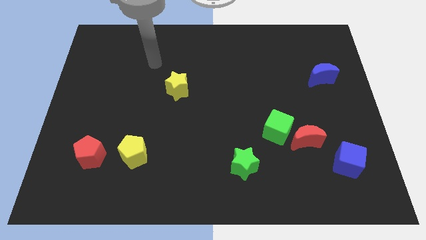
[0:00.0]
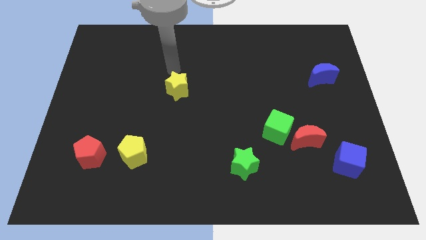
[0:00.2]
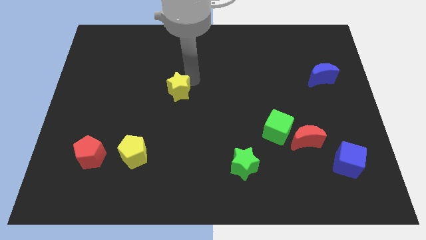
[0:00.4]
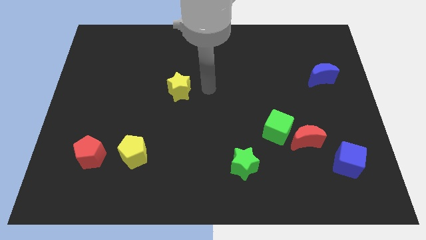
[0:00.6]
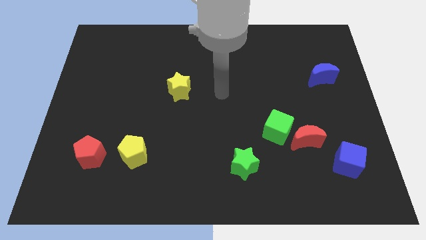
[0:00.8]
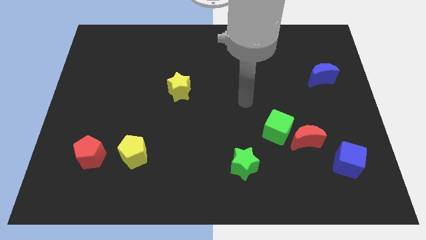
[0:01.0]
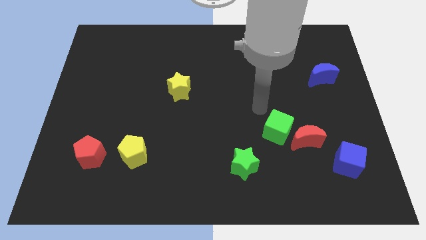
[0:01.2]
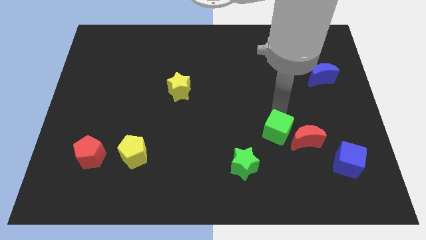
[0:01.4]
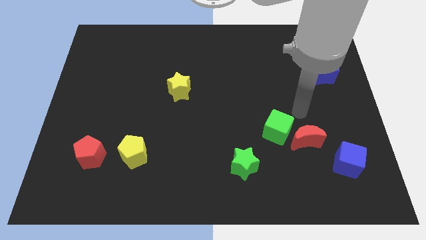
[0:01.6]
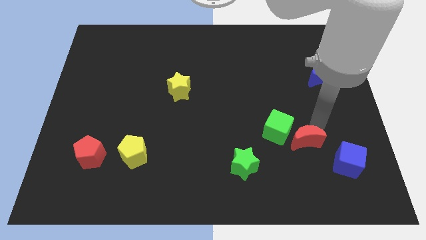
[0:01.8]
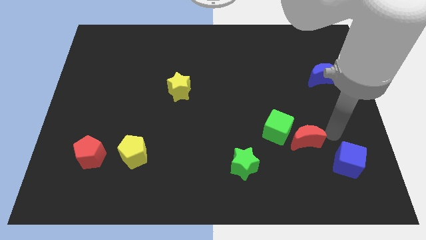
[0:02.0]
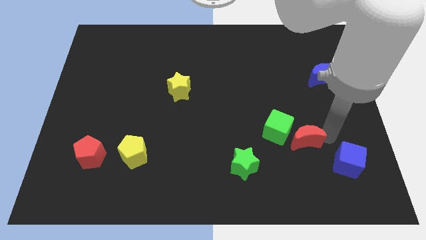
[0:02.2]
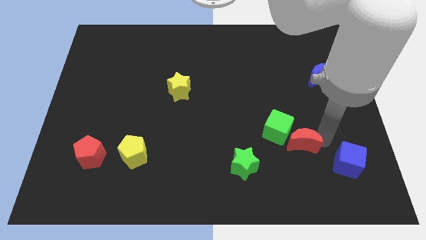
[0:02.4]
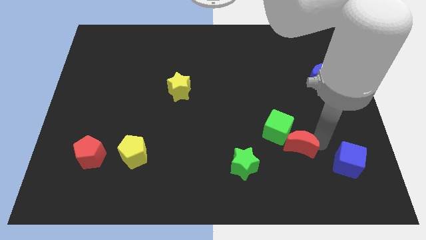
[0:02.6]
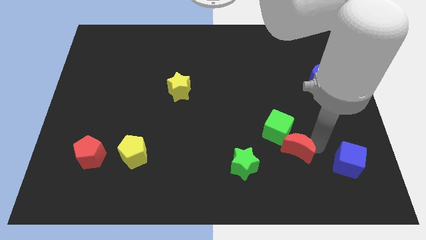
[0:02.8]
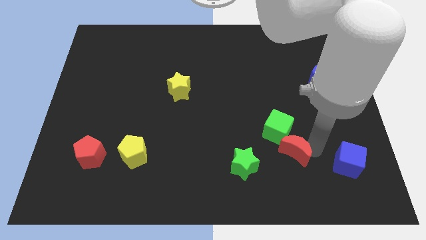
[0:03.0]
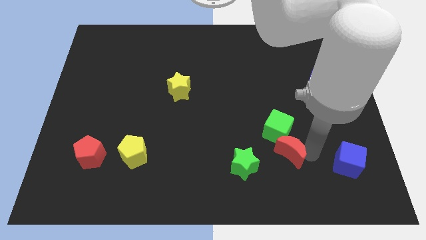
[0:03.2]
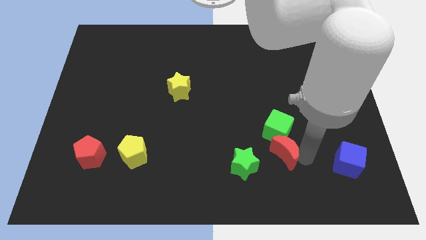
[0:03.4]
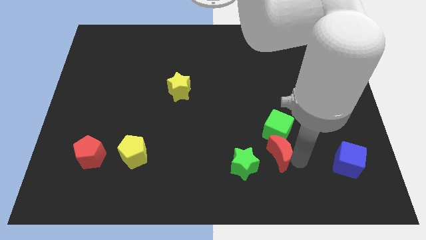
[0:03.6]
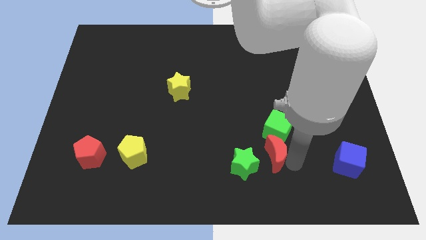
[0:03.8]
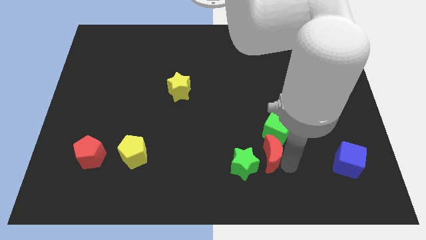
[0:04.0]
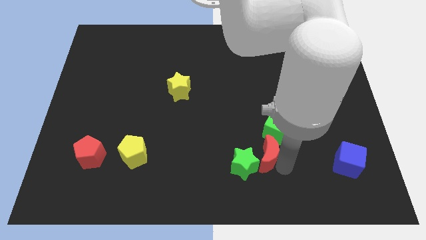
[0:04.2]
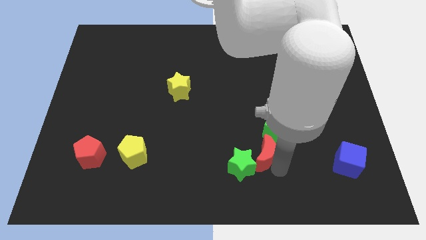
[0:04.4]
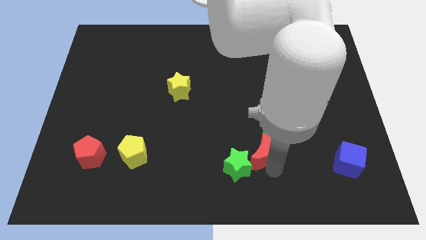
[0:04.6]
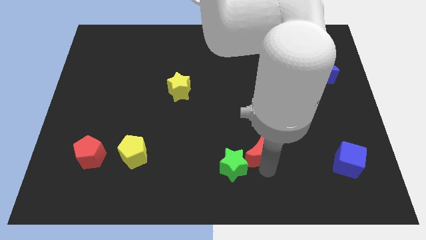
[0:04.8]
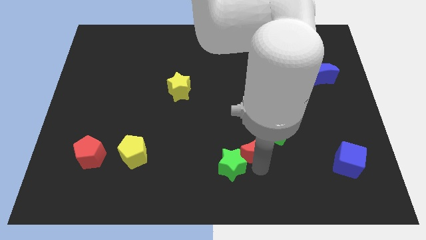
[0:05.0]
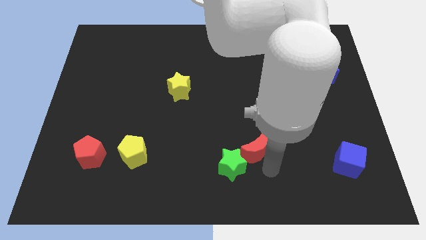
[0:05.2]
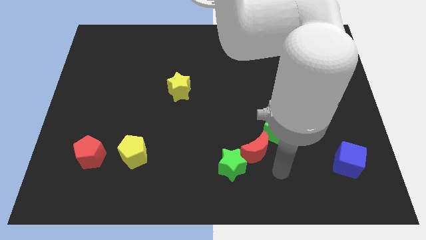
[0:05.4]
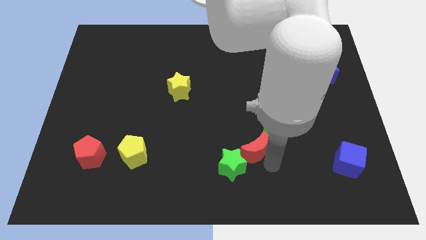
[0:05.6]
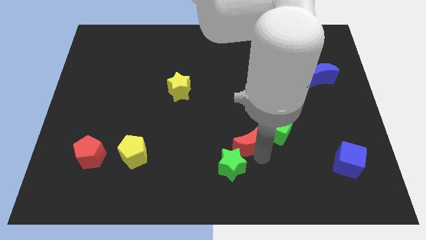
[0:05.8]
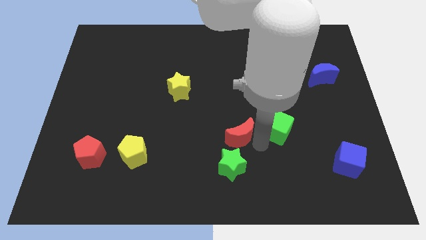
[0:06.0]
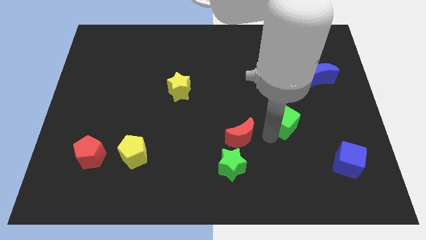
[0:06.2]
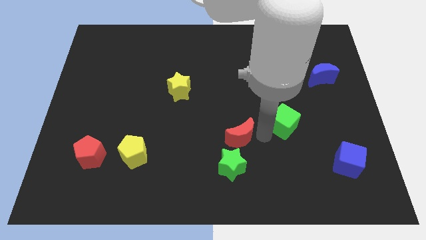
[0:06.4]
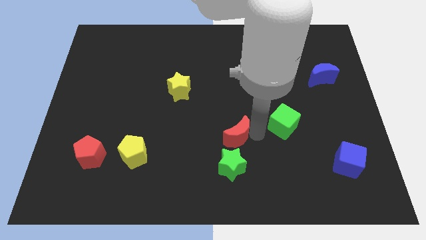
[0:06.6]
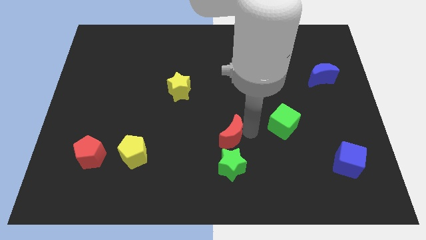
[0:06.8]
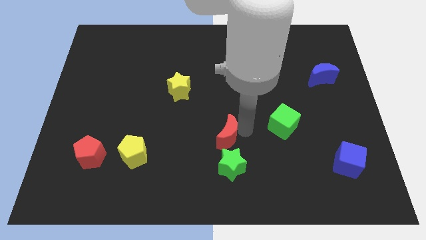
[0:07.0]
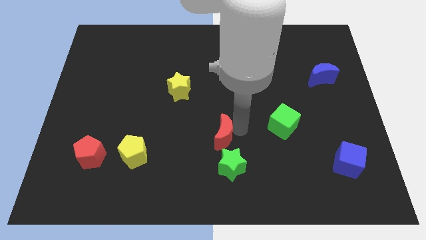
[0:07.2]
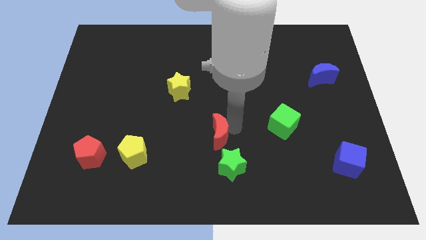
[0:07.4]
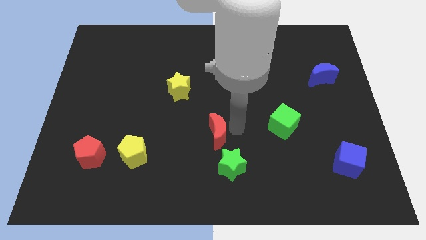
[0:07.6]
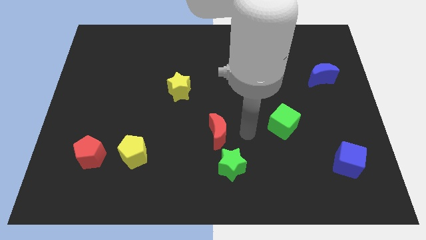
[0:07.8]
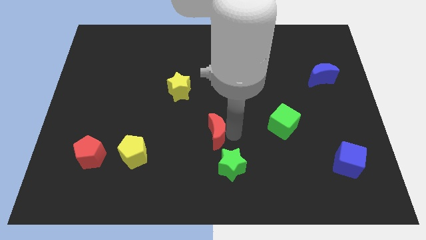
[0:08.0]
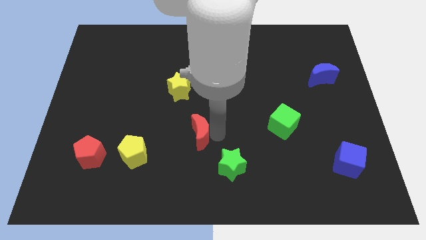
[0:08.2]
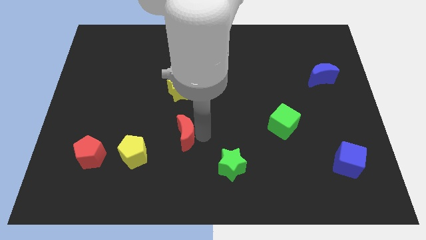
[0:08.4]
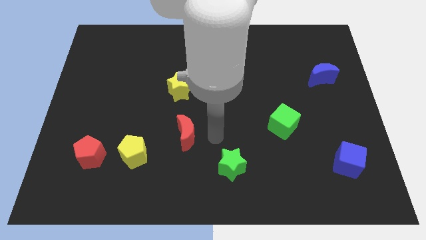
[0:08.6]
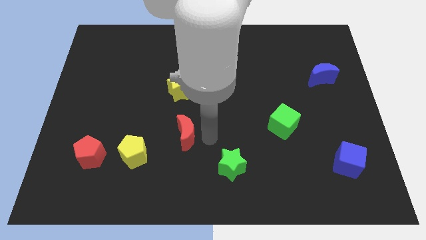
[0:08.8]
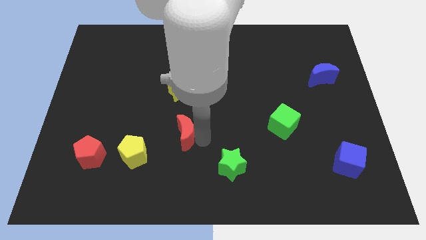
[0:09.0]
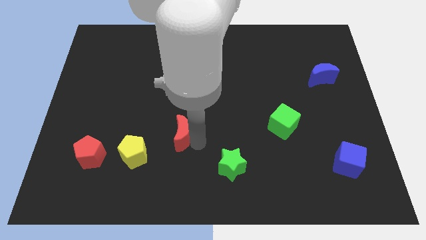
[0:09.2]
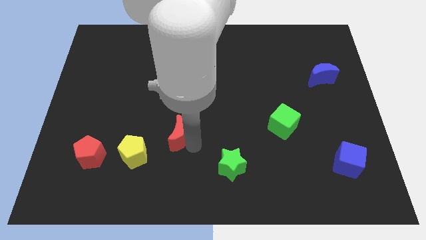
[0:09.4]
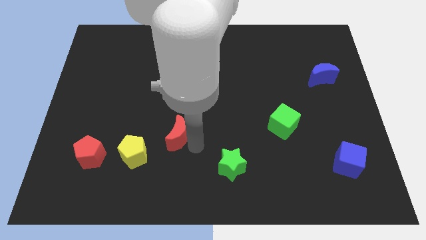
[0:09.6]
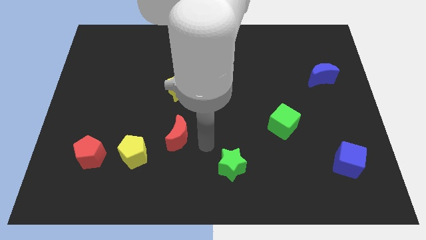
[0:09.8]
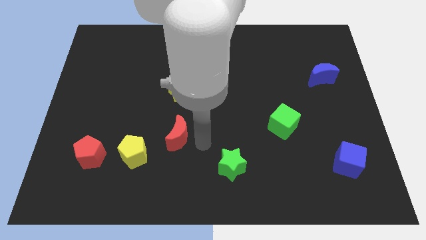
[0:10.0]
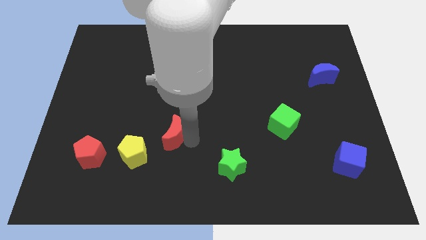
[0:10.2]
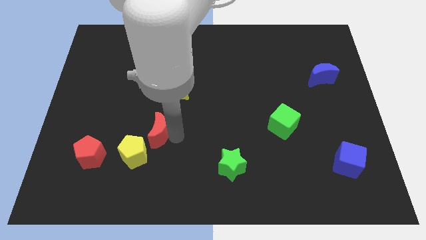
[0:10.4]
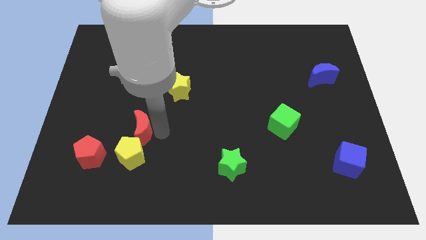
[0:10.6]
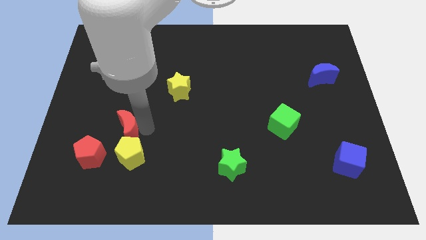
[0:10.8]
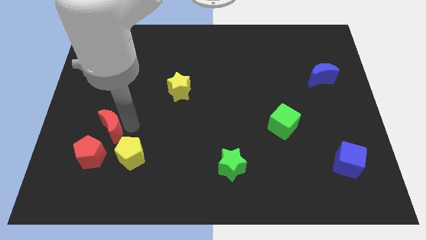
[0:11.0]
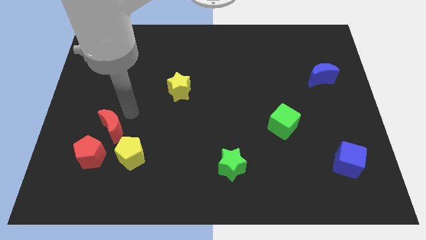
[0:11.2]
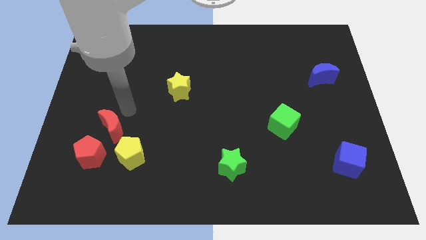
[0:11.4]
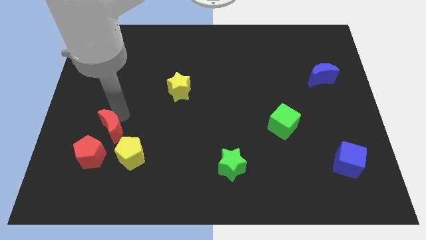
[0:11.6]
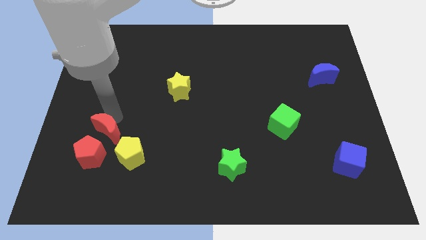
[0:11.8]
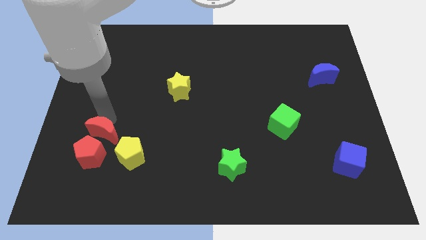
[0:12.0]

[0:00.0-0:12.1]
slide the red moon towards the red pentagon

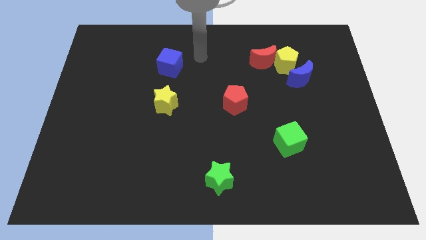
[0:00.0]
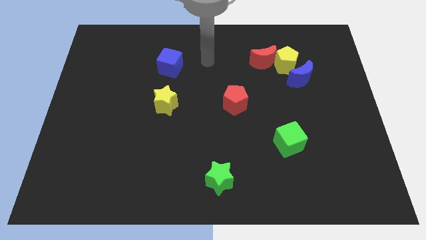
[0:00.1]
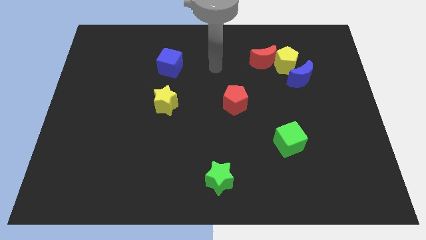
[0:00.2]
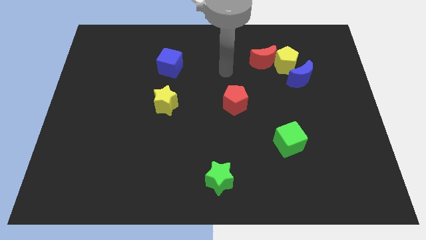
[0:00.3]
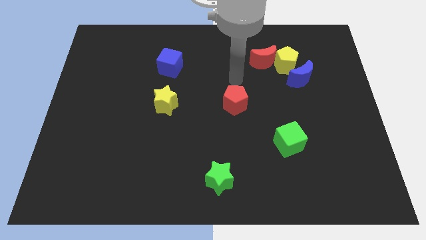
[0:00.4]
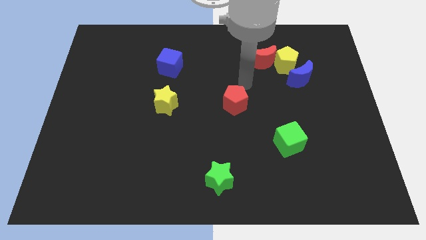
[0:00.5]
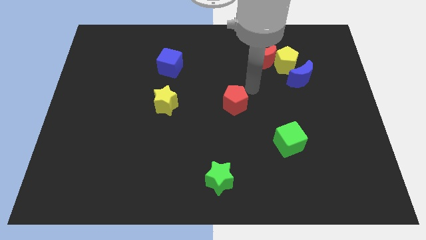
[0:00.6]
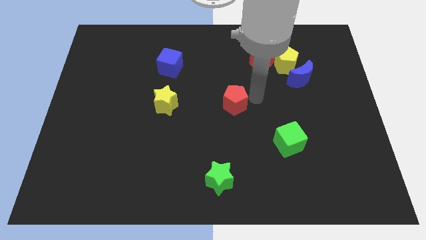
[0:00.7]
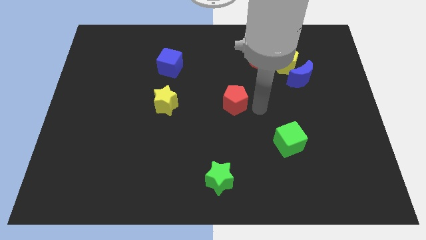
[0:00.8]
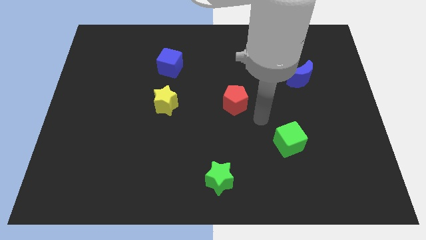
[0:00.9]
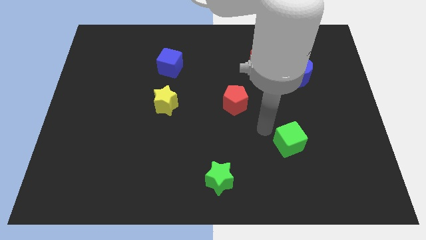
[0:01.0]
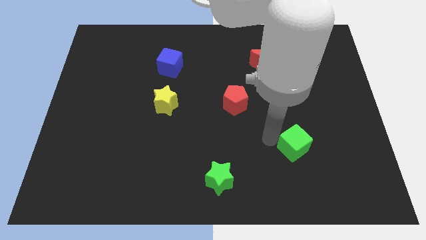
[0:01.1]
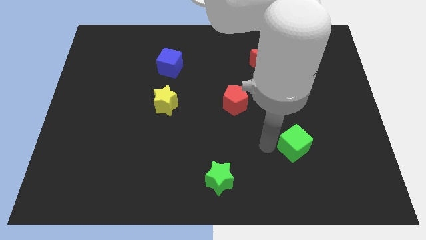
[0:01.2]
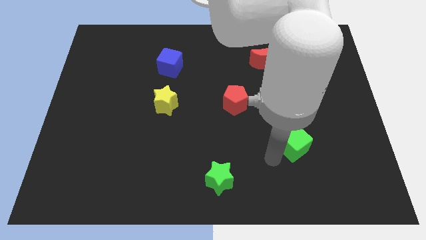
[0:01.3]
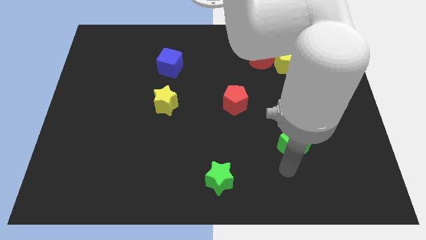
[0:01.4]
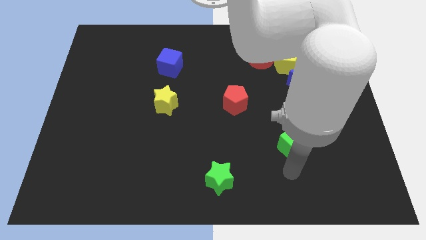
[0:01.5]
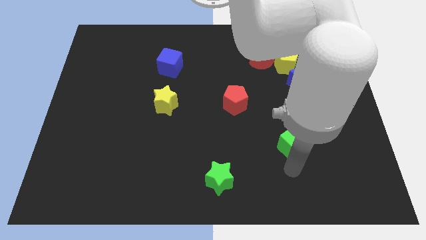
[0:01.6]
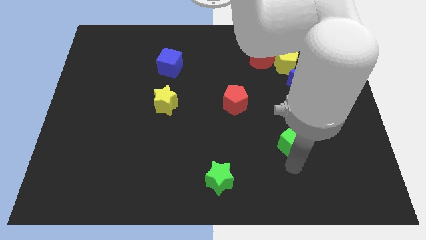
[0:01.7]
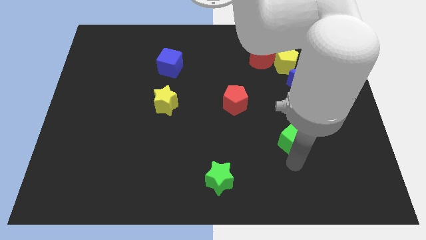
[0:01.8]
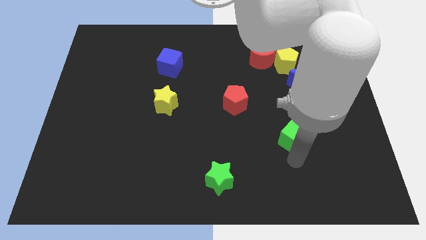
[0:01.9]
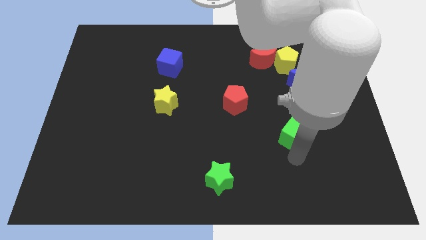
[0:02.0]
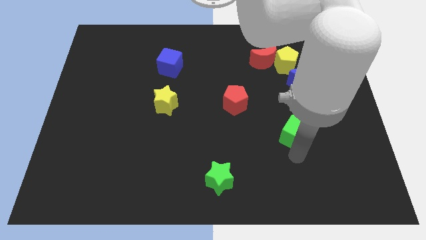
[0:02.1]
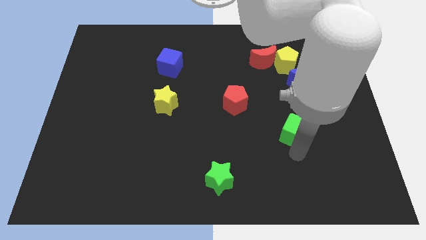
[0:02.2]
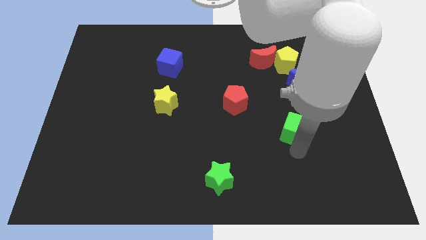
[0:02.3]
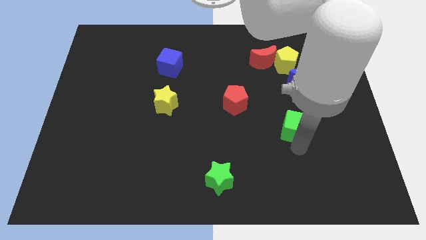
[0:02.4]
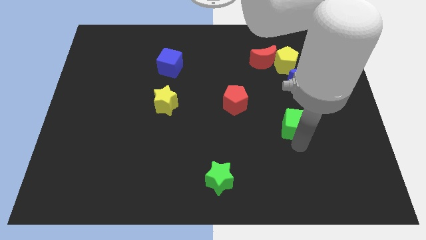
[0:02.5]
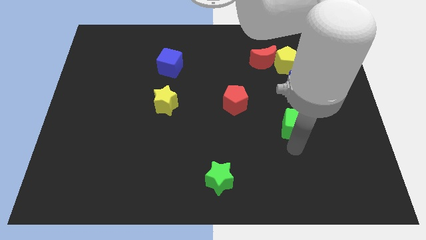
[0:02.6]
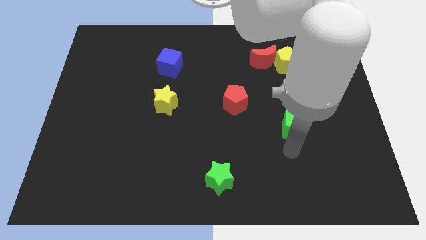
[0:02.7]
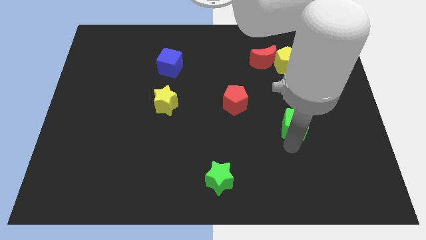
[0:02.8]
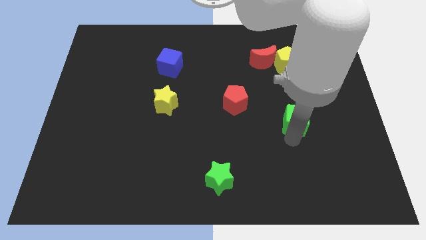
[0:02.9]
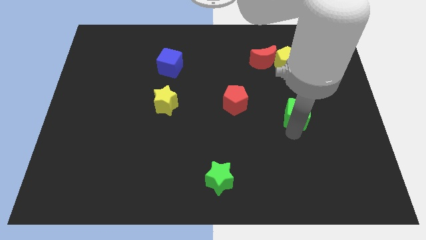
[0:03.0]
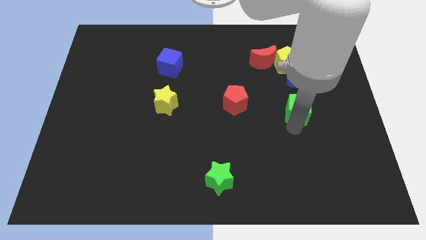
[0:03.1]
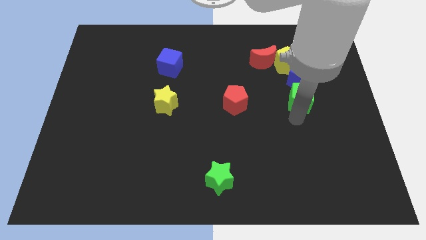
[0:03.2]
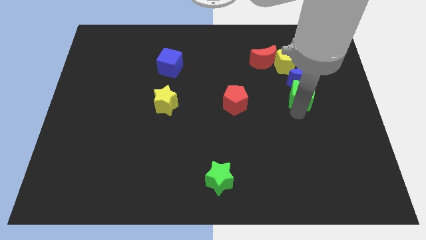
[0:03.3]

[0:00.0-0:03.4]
slide the green cube close to the blue moon
